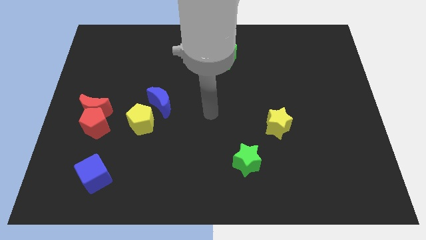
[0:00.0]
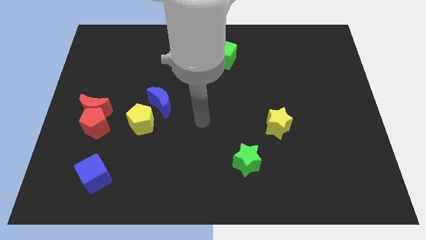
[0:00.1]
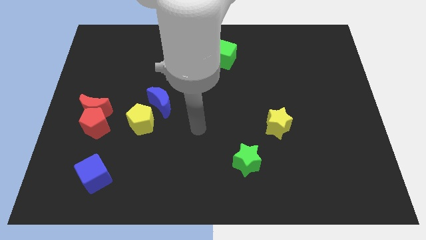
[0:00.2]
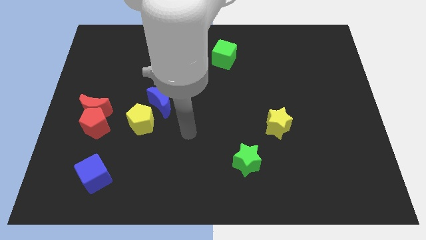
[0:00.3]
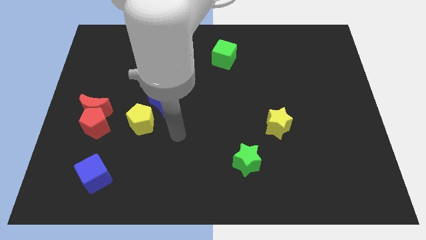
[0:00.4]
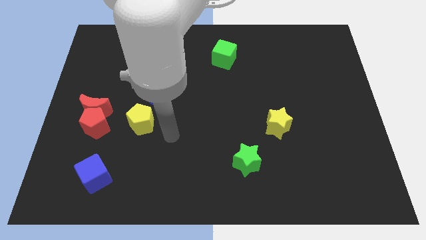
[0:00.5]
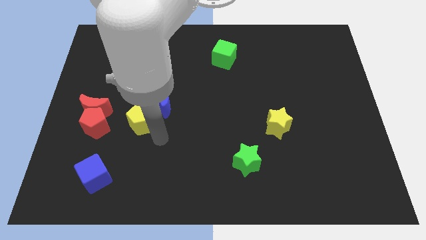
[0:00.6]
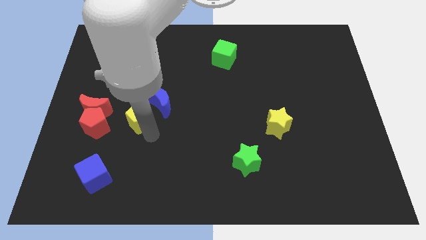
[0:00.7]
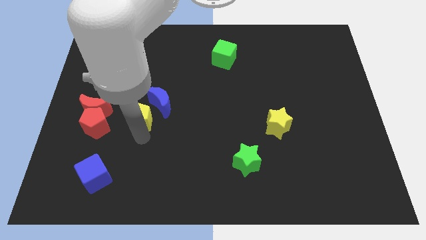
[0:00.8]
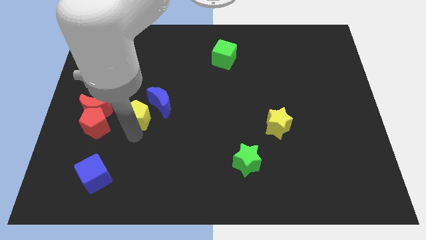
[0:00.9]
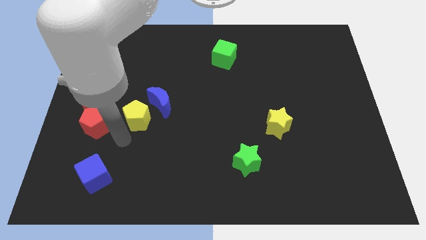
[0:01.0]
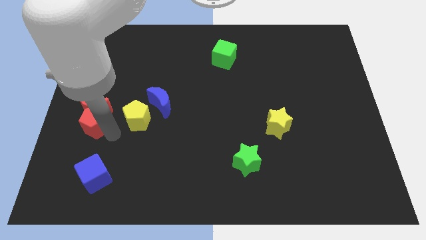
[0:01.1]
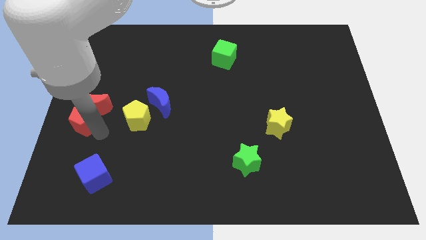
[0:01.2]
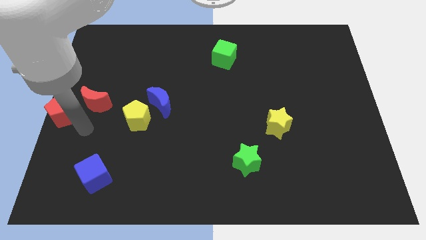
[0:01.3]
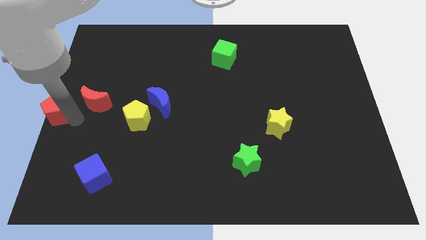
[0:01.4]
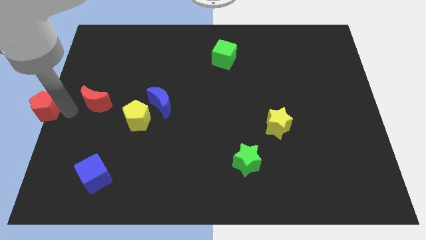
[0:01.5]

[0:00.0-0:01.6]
separate the red moon from the red pentagon

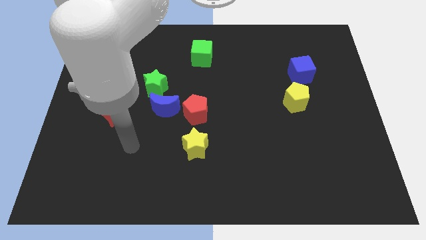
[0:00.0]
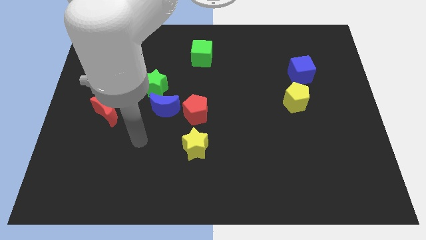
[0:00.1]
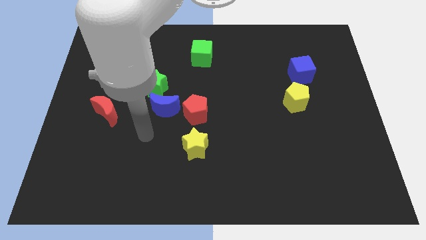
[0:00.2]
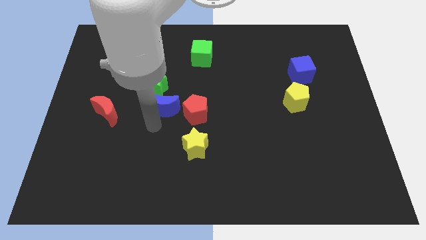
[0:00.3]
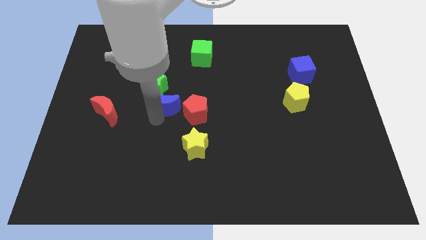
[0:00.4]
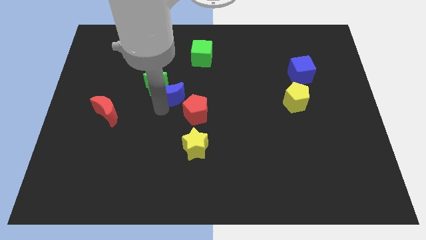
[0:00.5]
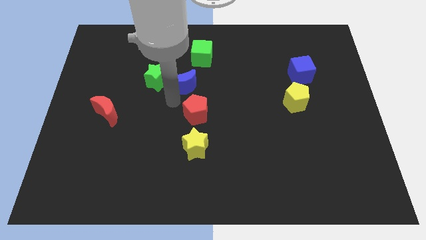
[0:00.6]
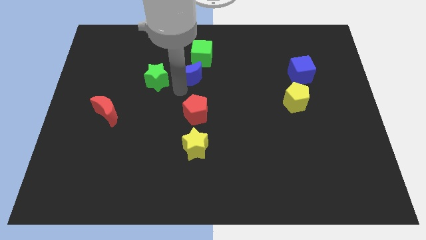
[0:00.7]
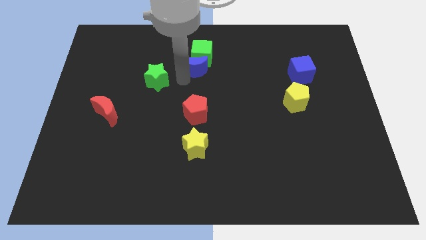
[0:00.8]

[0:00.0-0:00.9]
separate the green star from the blue moon

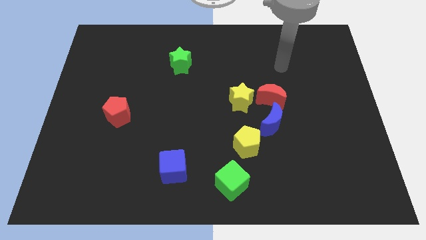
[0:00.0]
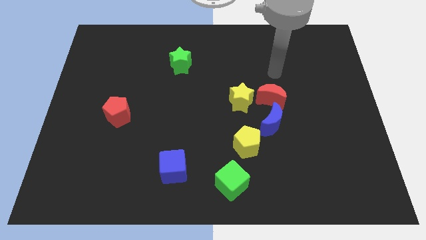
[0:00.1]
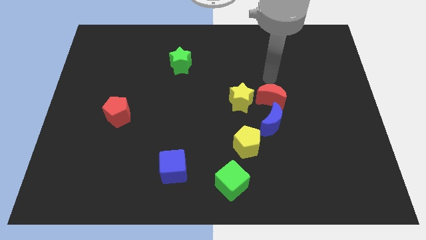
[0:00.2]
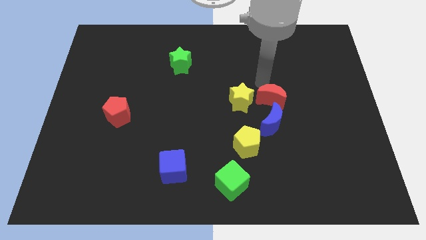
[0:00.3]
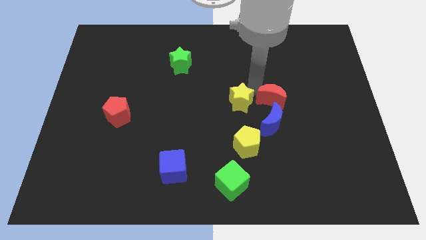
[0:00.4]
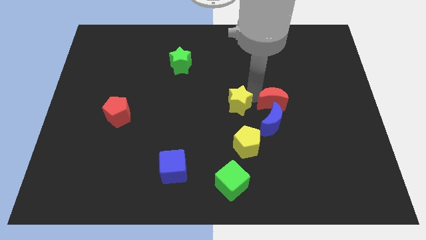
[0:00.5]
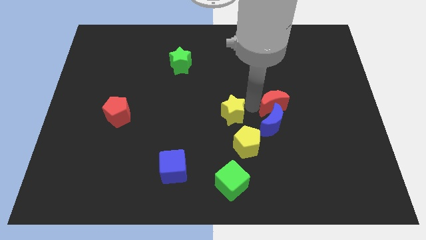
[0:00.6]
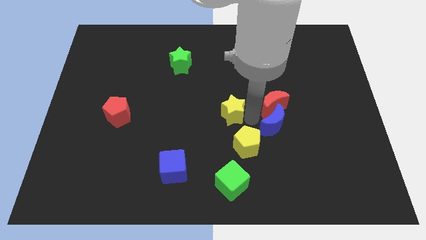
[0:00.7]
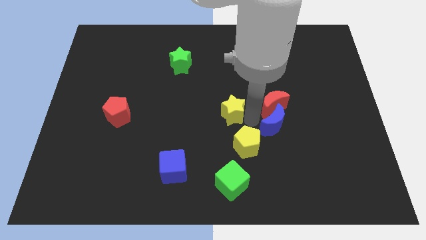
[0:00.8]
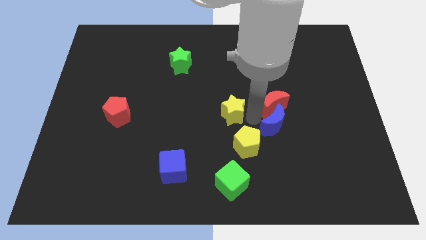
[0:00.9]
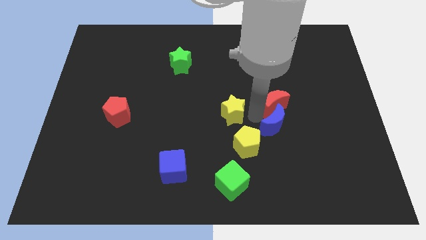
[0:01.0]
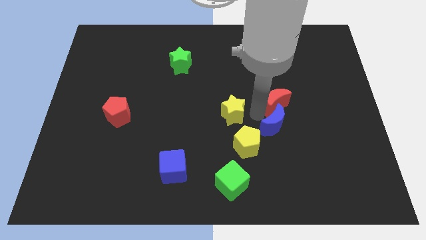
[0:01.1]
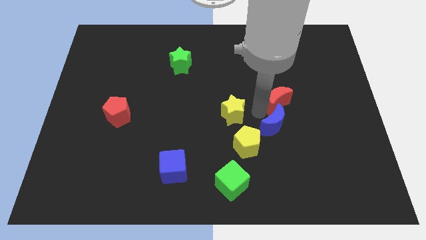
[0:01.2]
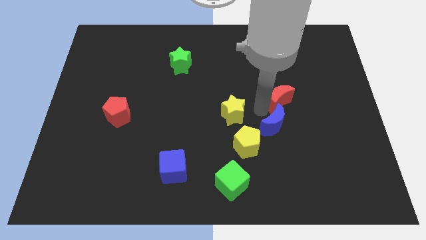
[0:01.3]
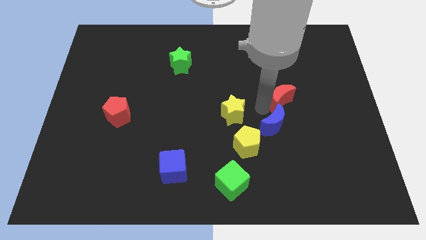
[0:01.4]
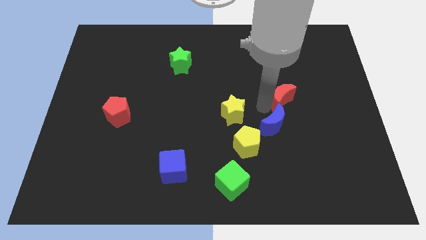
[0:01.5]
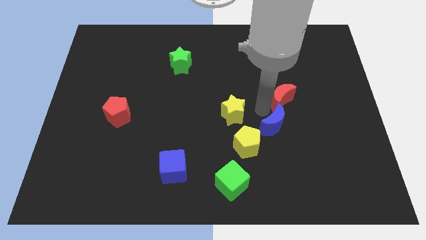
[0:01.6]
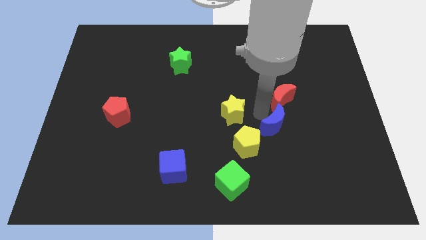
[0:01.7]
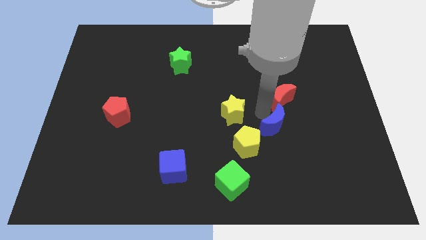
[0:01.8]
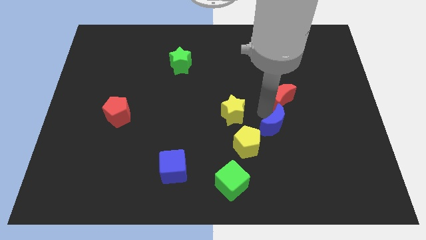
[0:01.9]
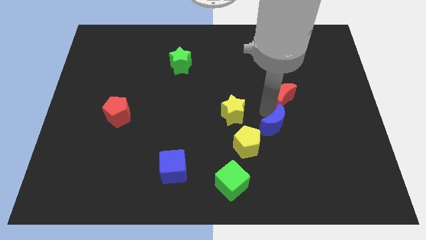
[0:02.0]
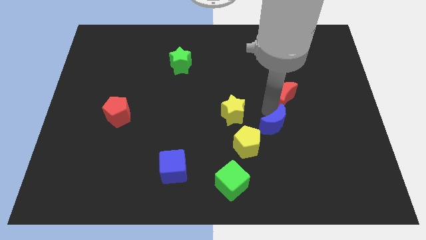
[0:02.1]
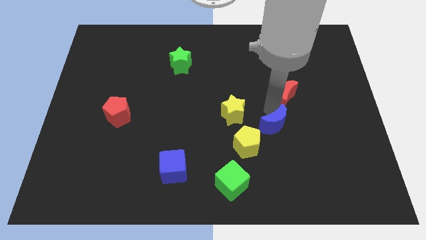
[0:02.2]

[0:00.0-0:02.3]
separate the red moon from the blue moon and yellow star

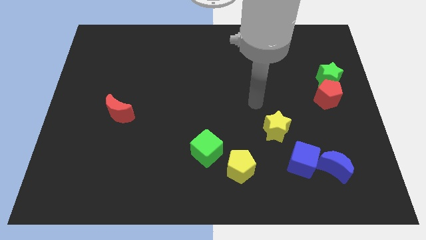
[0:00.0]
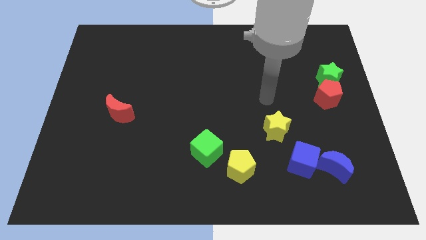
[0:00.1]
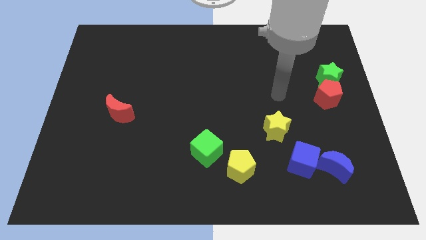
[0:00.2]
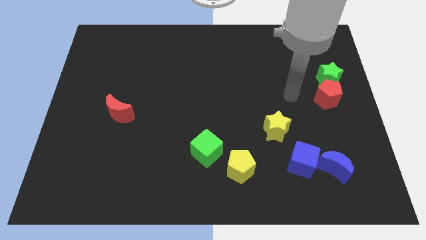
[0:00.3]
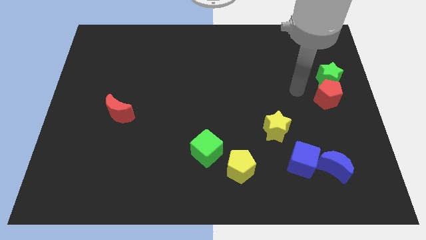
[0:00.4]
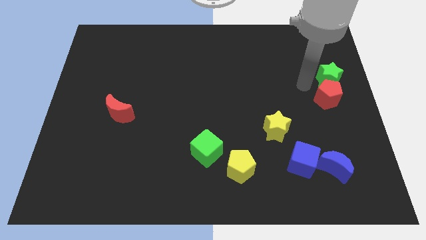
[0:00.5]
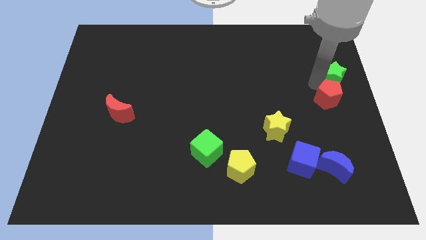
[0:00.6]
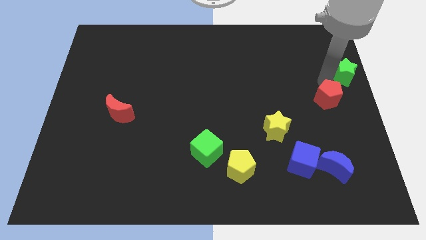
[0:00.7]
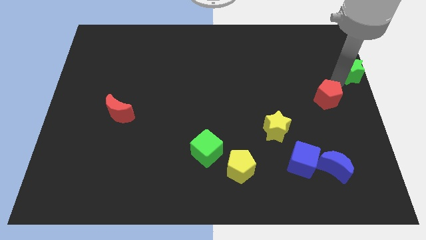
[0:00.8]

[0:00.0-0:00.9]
move the red pentagon away from the green star

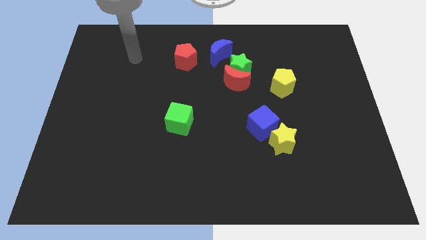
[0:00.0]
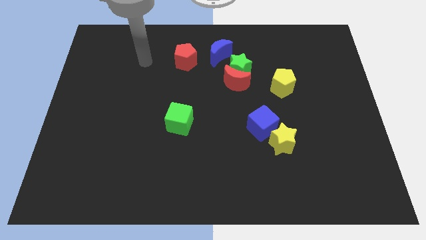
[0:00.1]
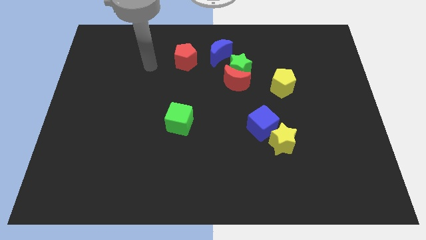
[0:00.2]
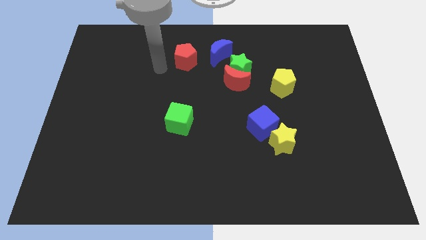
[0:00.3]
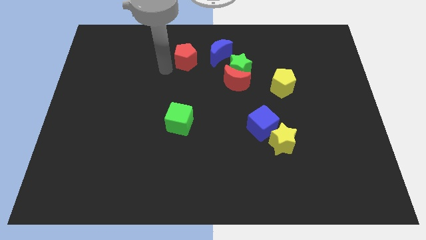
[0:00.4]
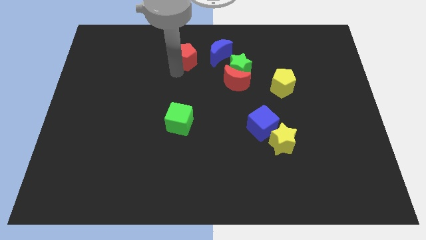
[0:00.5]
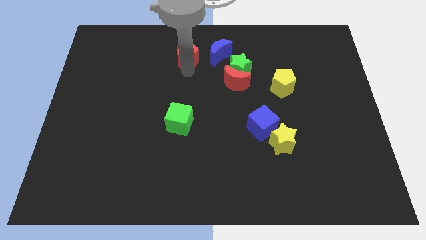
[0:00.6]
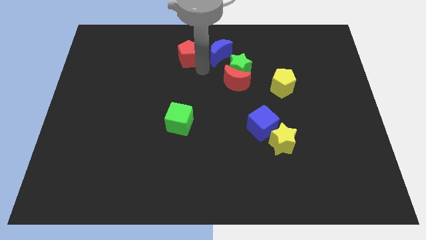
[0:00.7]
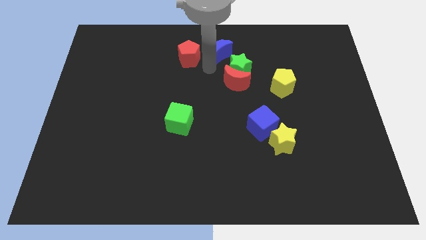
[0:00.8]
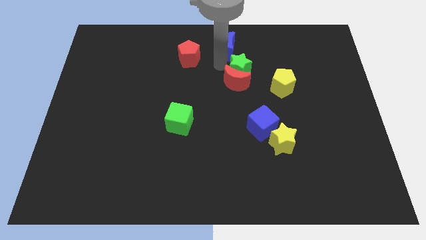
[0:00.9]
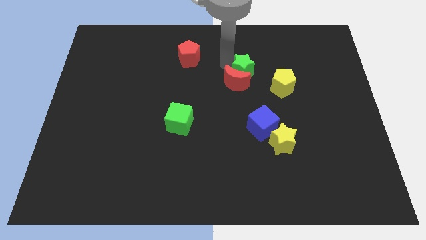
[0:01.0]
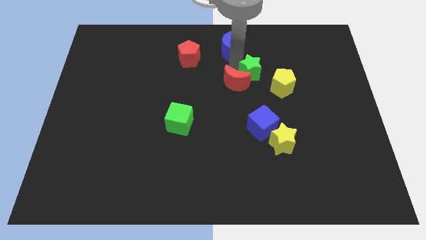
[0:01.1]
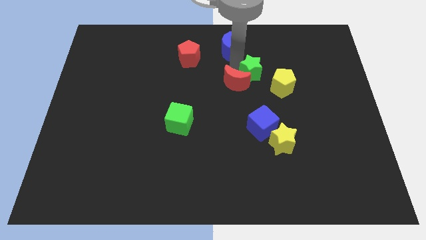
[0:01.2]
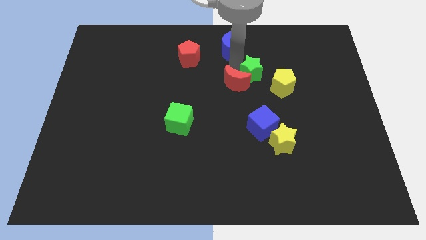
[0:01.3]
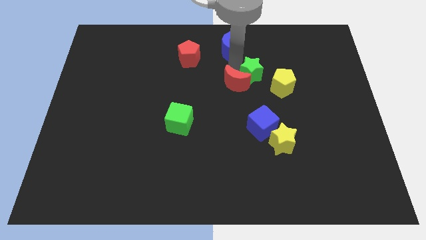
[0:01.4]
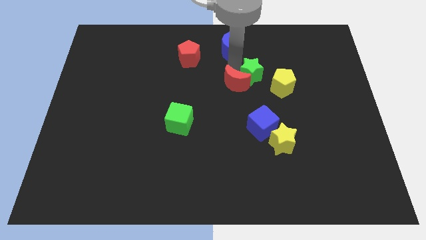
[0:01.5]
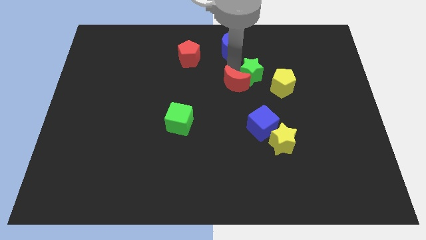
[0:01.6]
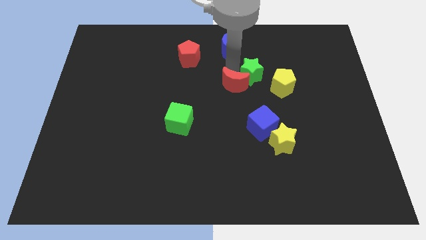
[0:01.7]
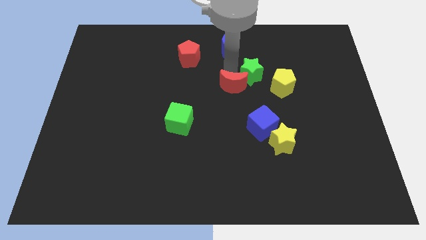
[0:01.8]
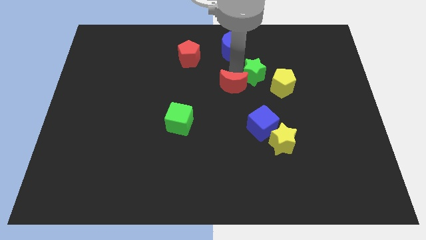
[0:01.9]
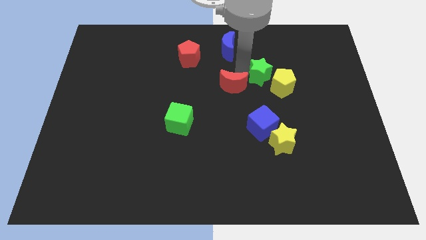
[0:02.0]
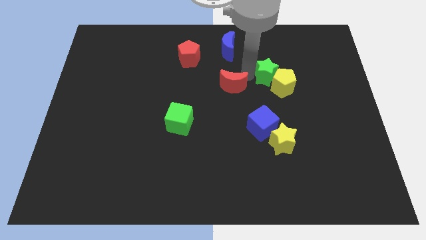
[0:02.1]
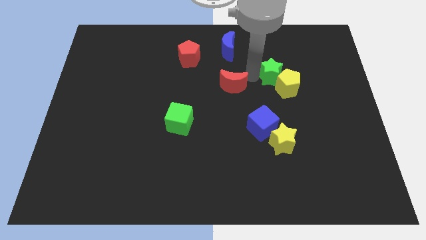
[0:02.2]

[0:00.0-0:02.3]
move the red moon away from the green star

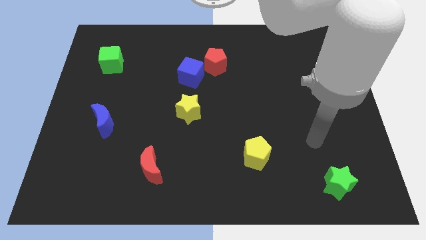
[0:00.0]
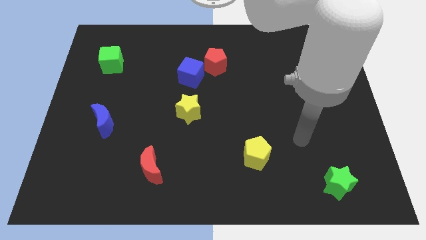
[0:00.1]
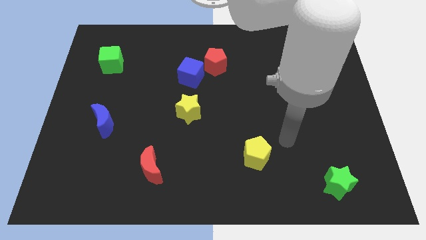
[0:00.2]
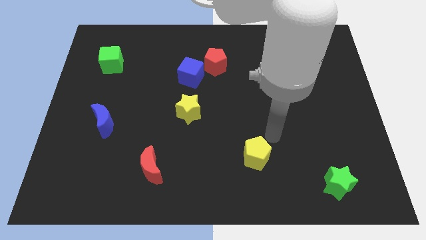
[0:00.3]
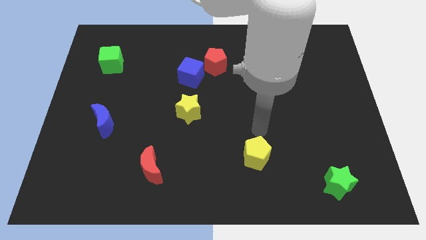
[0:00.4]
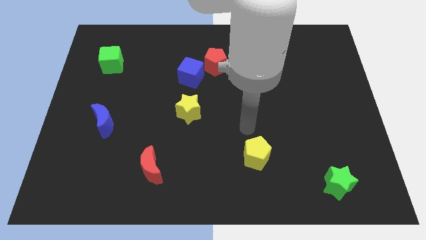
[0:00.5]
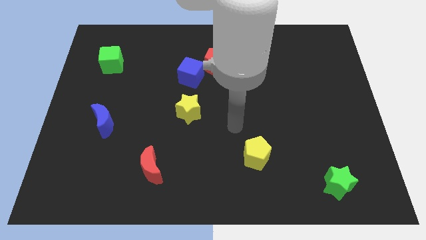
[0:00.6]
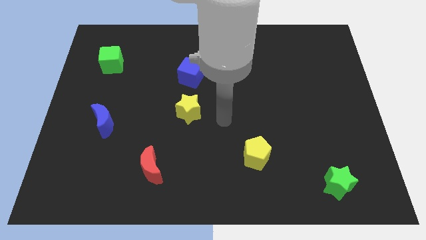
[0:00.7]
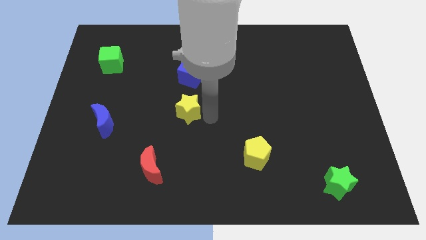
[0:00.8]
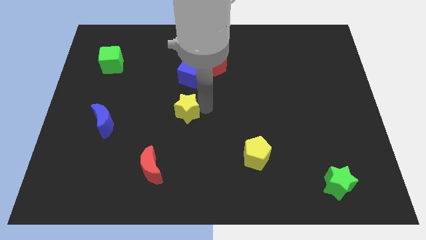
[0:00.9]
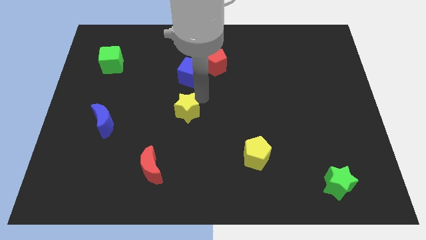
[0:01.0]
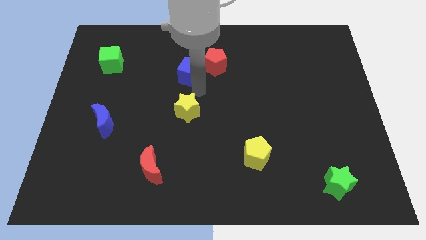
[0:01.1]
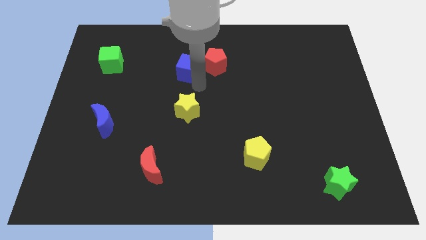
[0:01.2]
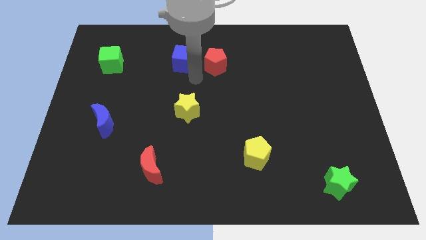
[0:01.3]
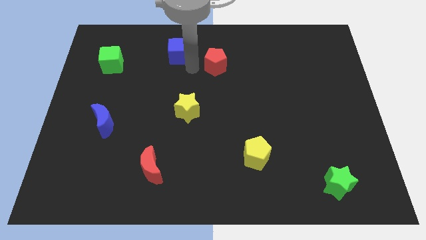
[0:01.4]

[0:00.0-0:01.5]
pull the red pentagon apart from the blue cube
